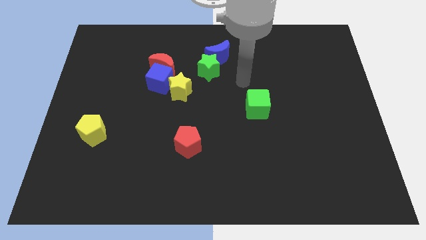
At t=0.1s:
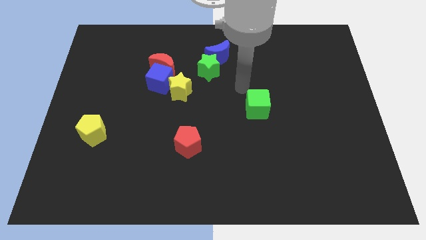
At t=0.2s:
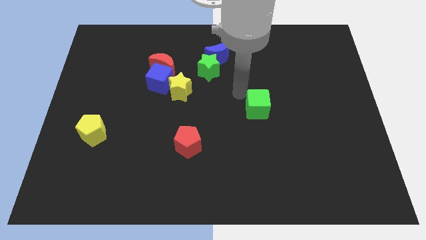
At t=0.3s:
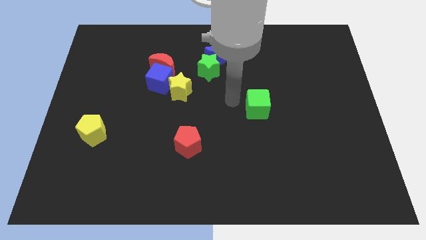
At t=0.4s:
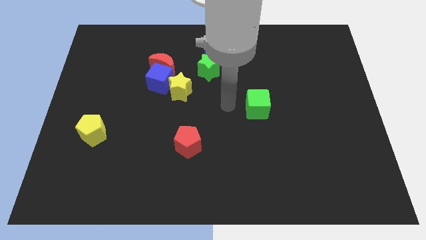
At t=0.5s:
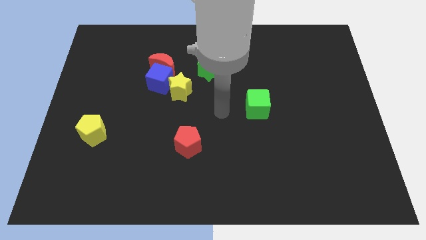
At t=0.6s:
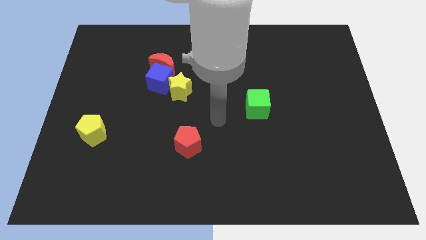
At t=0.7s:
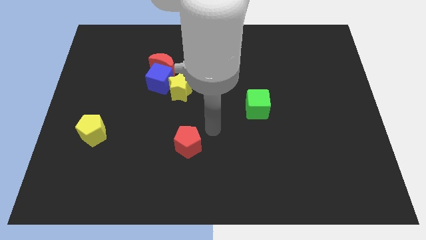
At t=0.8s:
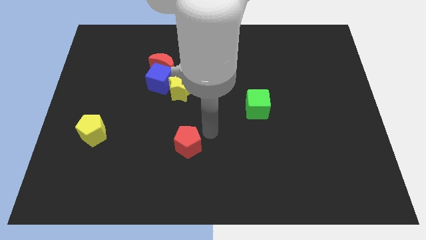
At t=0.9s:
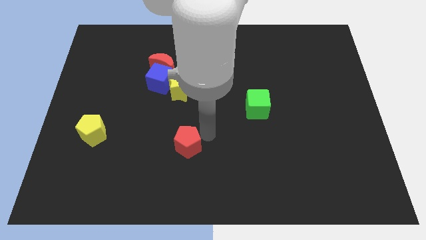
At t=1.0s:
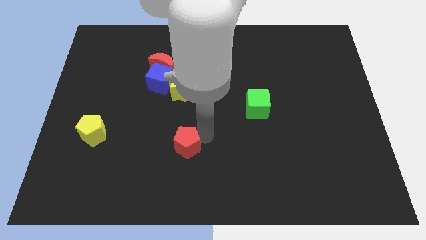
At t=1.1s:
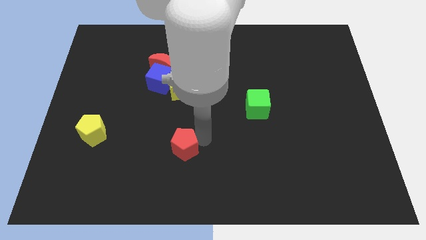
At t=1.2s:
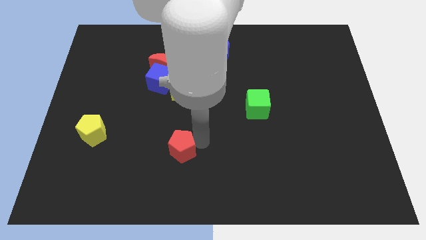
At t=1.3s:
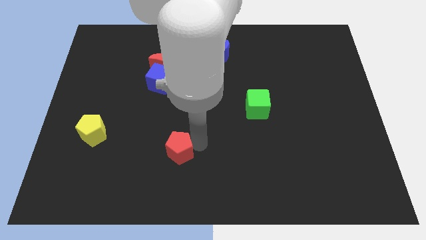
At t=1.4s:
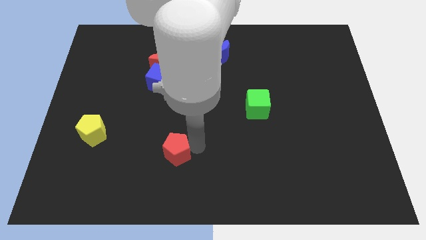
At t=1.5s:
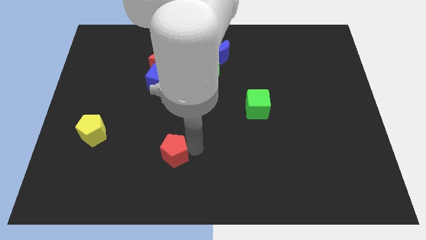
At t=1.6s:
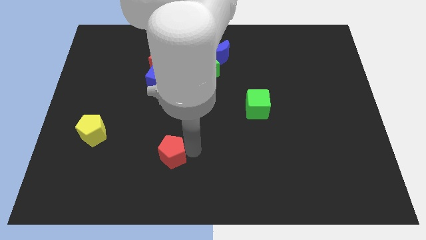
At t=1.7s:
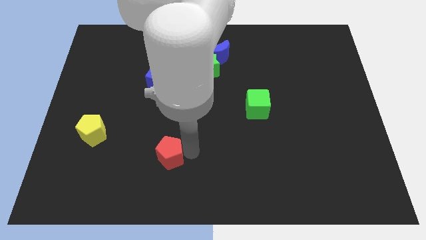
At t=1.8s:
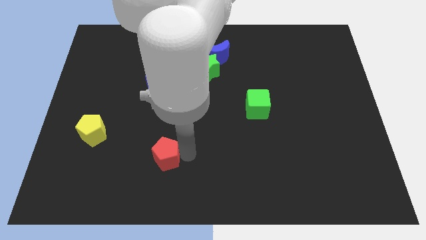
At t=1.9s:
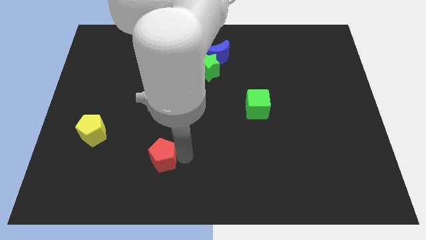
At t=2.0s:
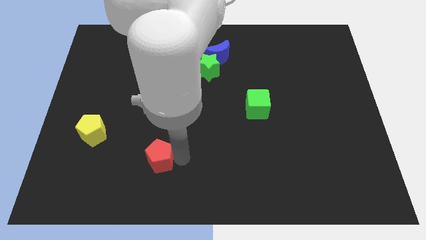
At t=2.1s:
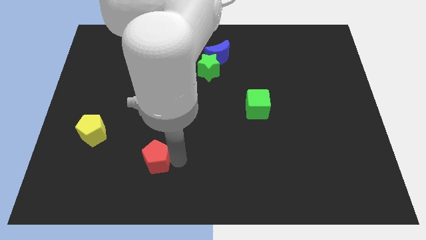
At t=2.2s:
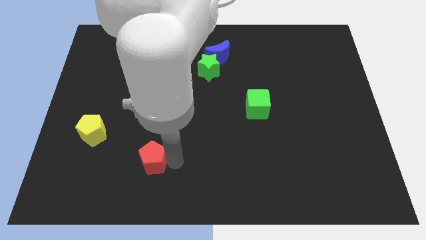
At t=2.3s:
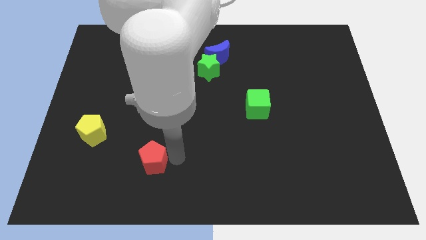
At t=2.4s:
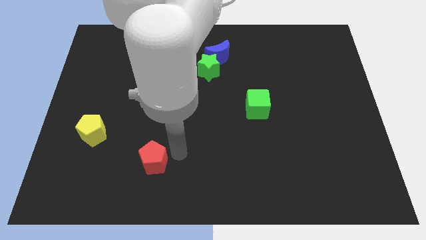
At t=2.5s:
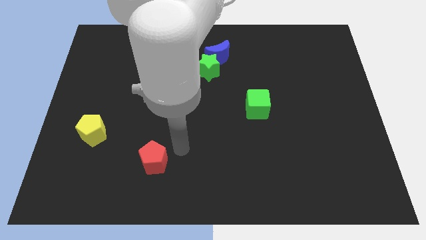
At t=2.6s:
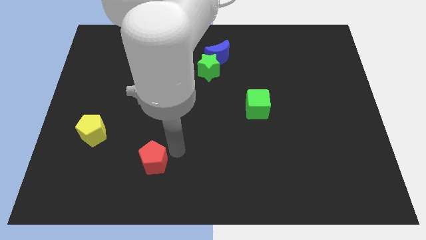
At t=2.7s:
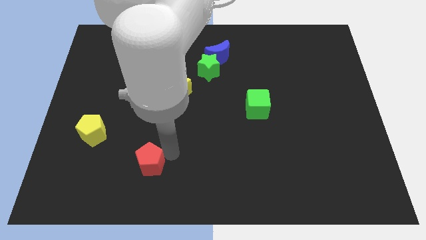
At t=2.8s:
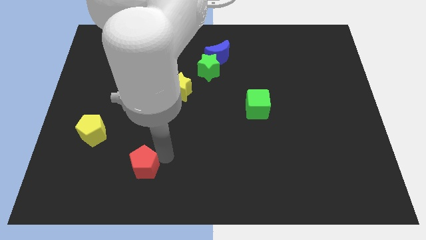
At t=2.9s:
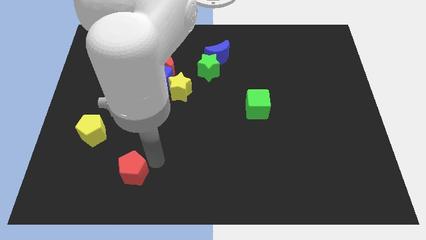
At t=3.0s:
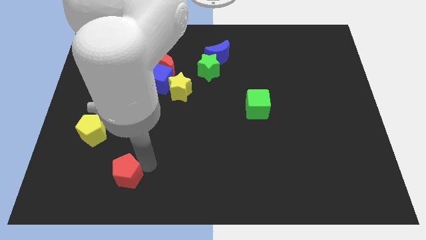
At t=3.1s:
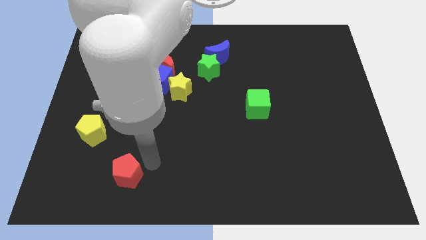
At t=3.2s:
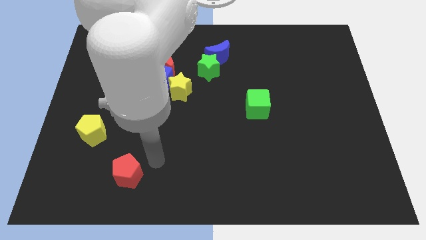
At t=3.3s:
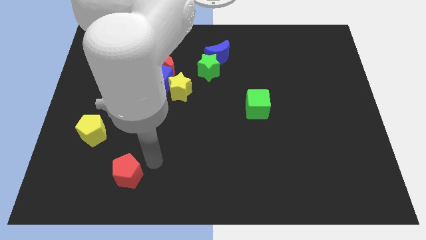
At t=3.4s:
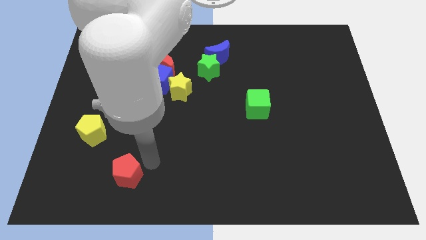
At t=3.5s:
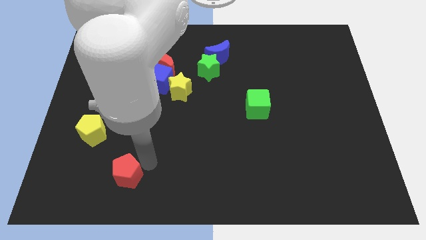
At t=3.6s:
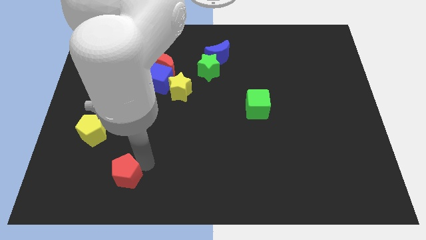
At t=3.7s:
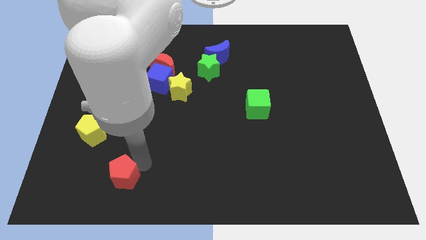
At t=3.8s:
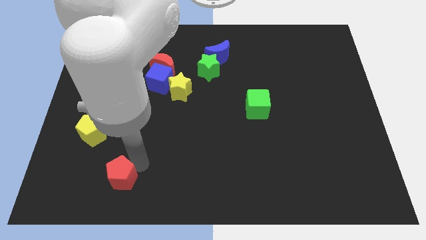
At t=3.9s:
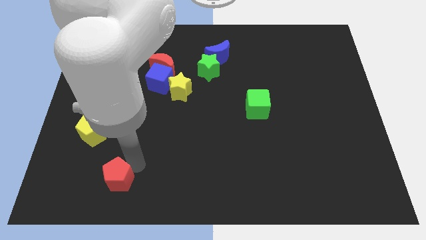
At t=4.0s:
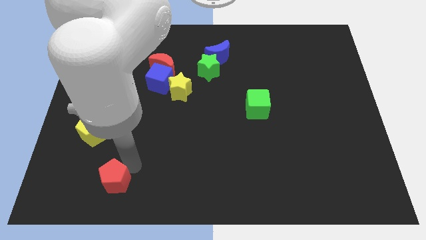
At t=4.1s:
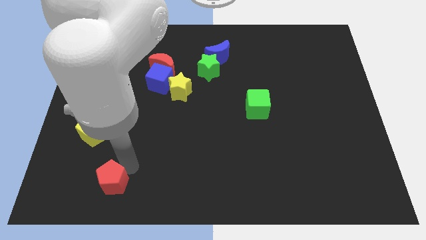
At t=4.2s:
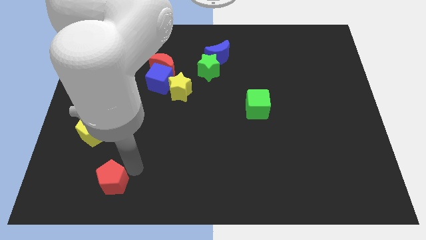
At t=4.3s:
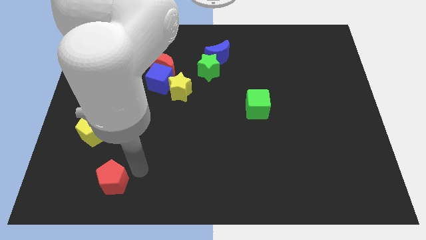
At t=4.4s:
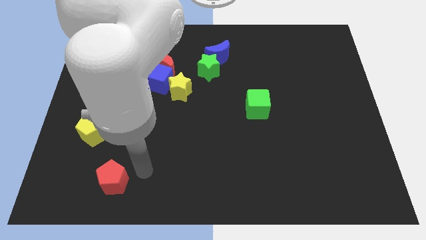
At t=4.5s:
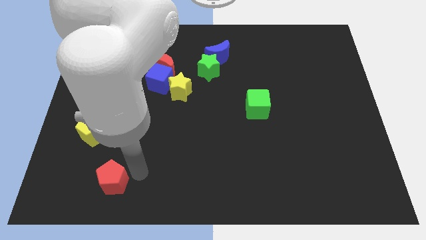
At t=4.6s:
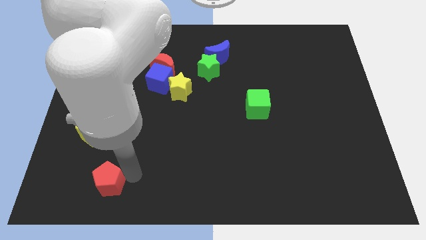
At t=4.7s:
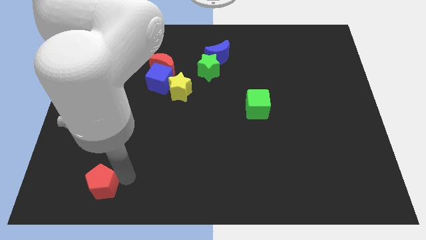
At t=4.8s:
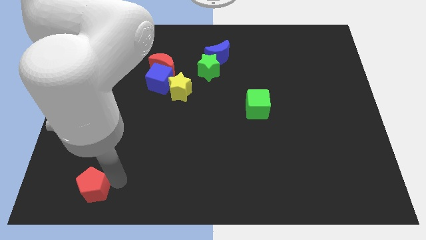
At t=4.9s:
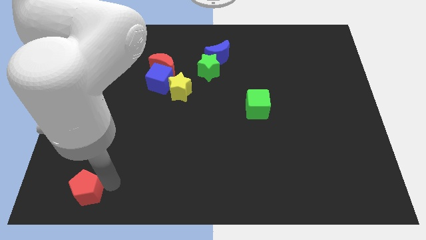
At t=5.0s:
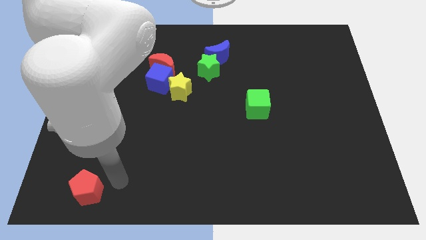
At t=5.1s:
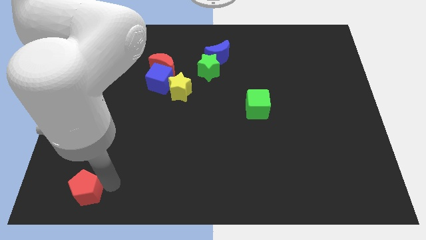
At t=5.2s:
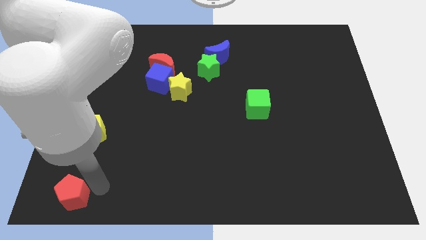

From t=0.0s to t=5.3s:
put the red pentagon to the bottom left corner

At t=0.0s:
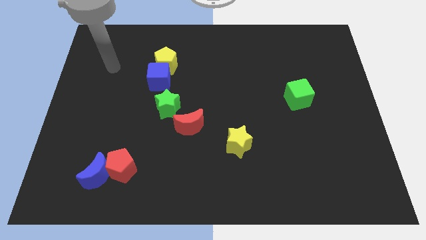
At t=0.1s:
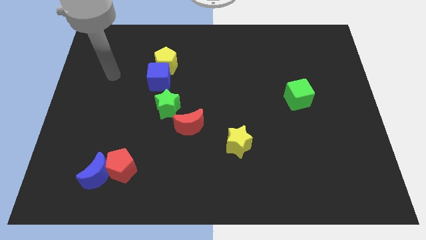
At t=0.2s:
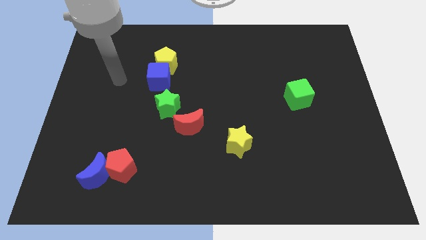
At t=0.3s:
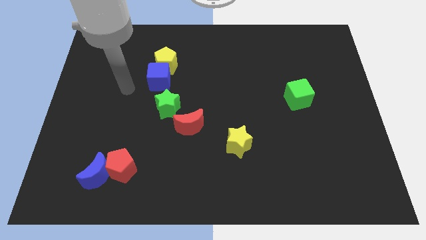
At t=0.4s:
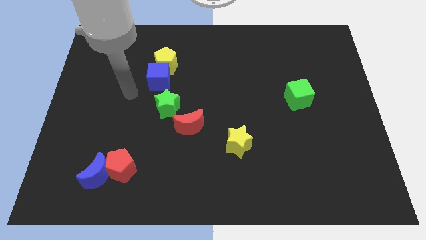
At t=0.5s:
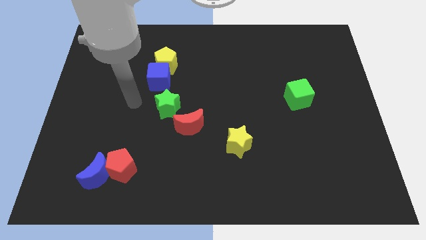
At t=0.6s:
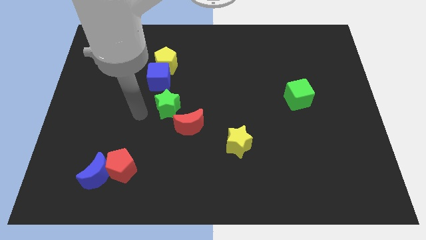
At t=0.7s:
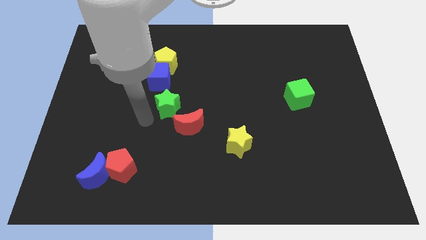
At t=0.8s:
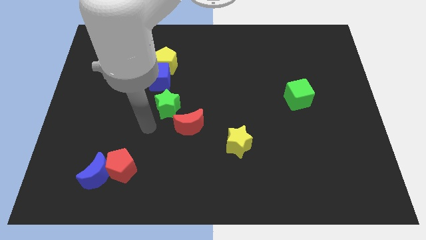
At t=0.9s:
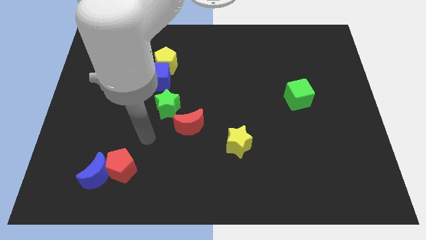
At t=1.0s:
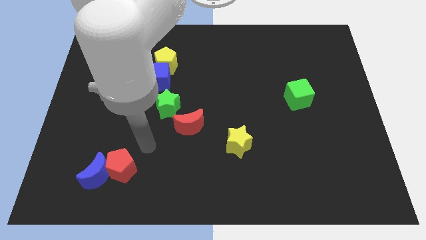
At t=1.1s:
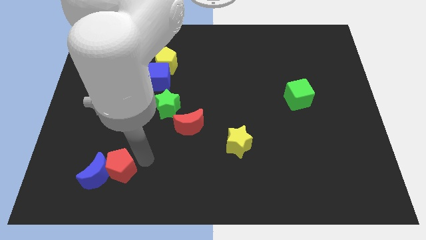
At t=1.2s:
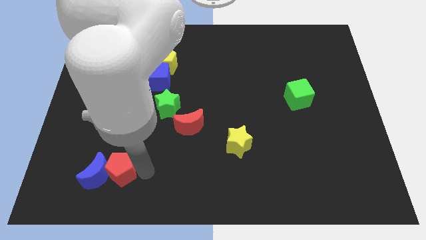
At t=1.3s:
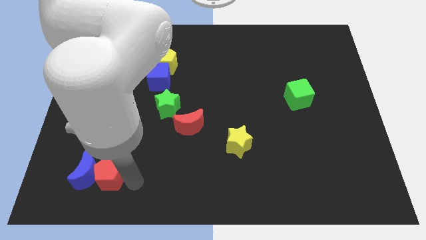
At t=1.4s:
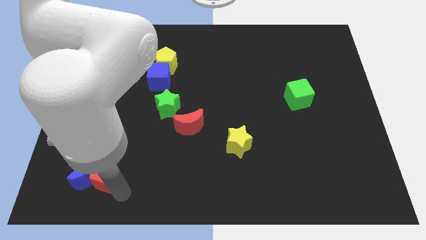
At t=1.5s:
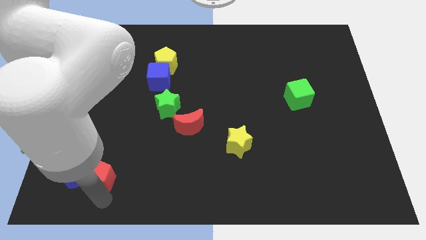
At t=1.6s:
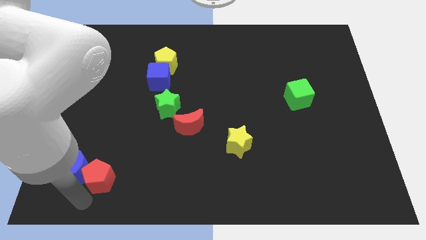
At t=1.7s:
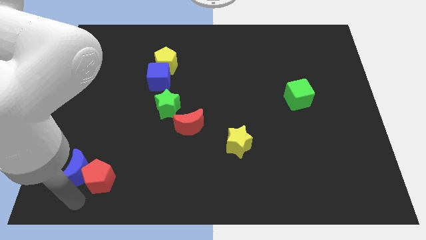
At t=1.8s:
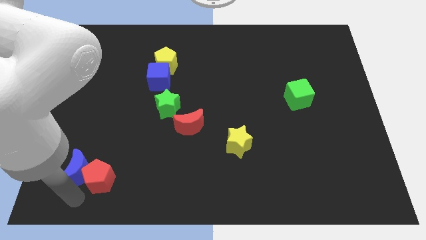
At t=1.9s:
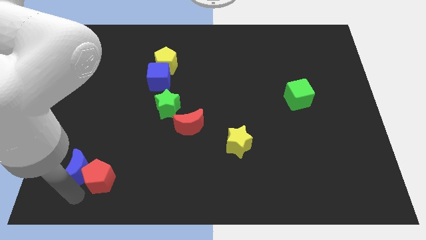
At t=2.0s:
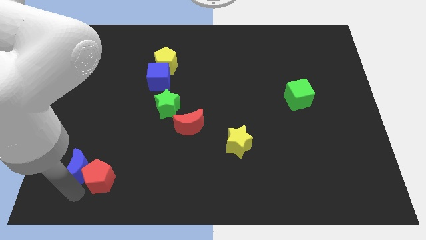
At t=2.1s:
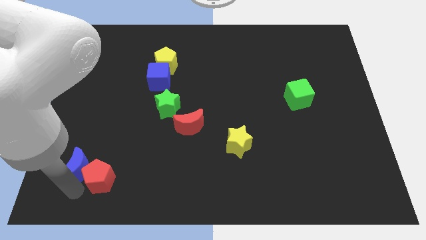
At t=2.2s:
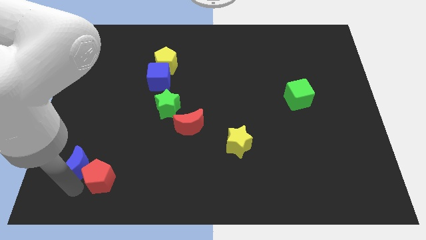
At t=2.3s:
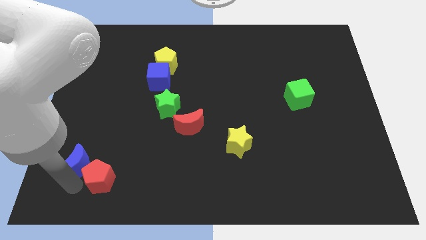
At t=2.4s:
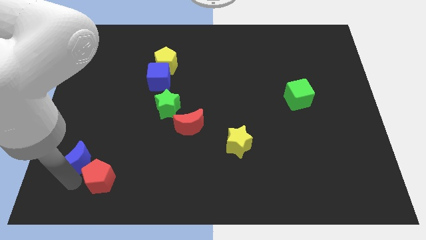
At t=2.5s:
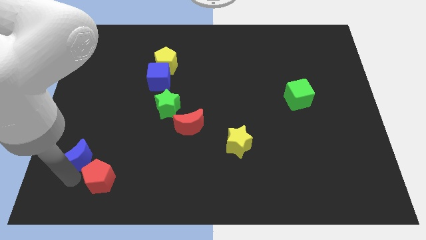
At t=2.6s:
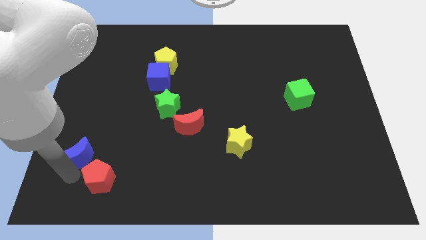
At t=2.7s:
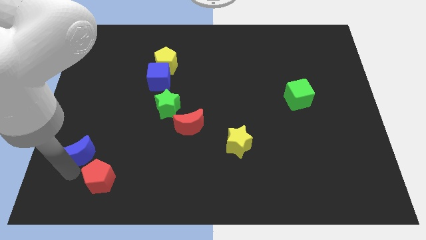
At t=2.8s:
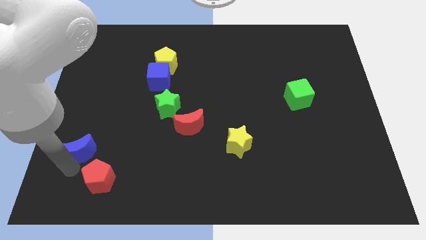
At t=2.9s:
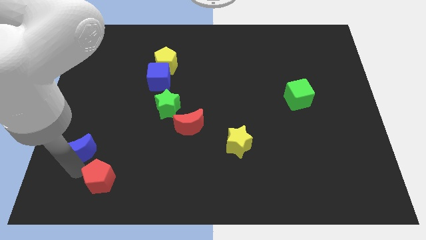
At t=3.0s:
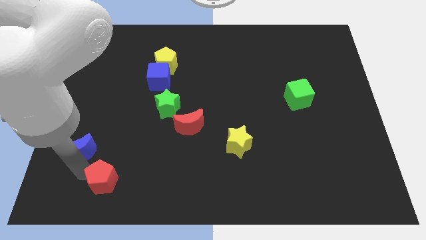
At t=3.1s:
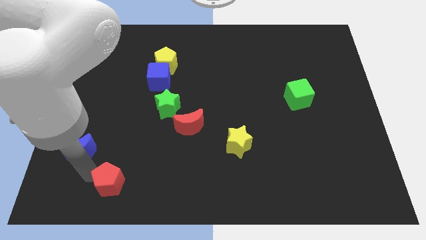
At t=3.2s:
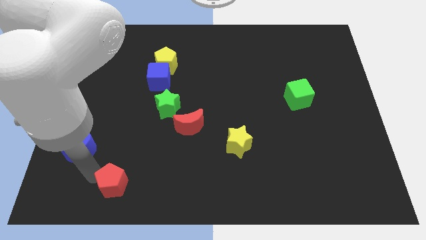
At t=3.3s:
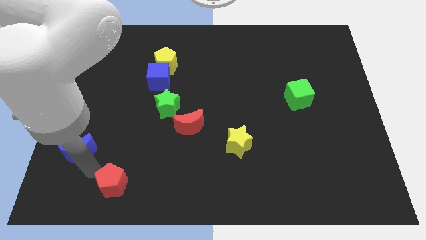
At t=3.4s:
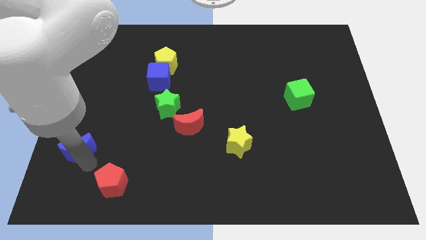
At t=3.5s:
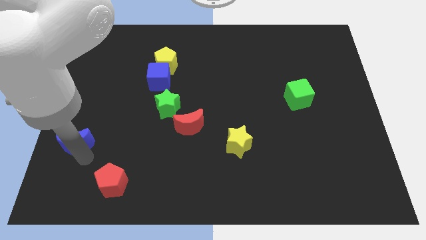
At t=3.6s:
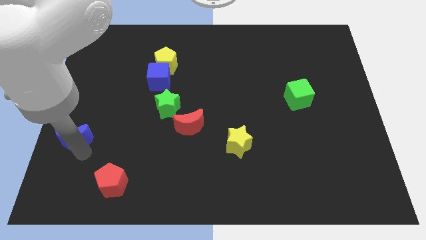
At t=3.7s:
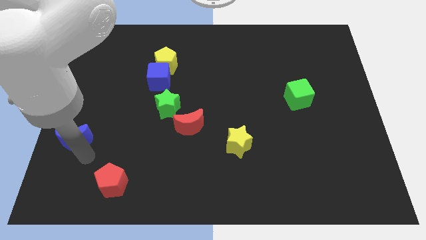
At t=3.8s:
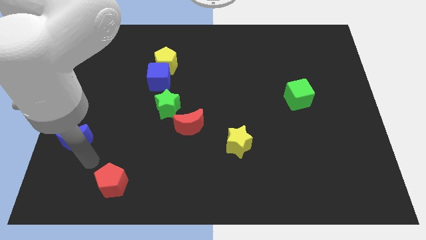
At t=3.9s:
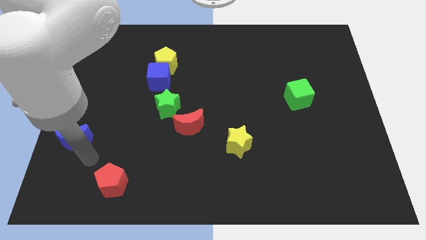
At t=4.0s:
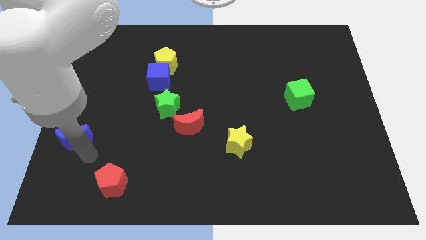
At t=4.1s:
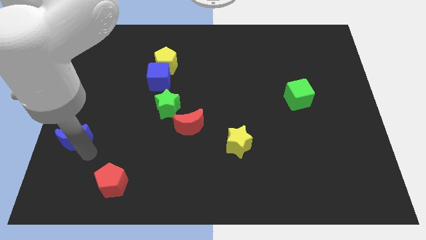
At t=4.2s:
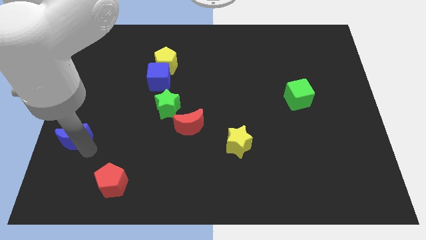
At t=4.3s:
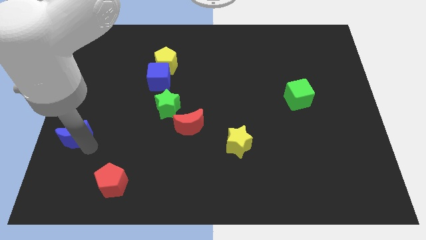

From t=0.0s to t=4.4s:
push the blue moon to the left side
